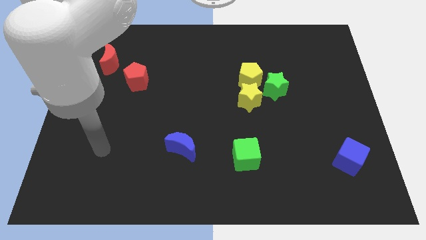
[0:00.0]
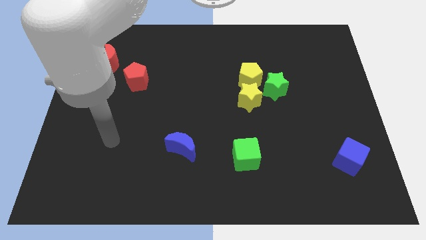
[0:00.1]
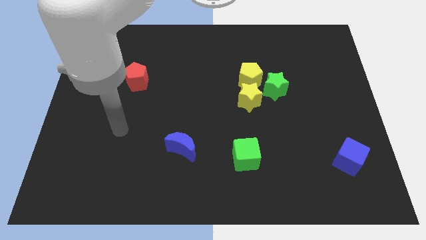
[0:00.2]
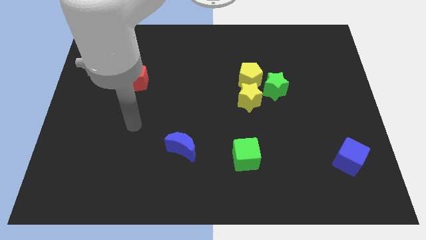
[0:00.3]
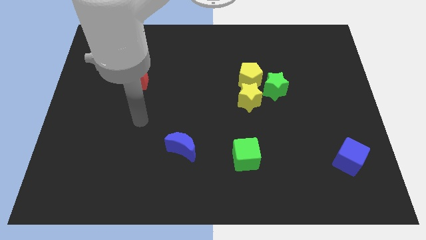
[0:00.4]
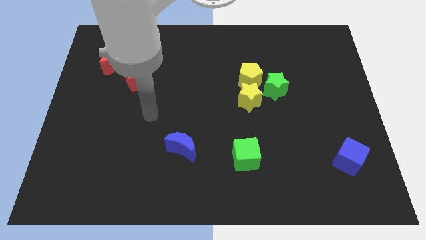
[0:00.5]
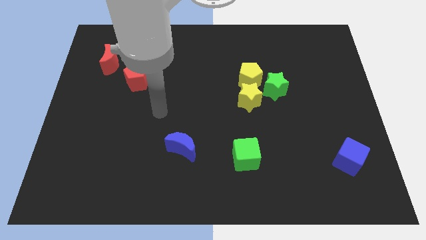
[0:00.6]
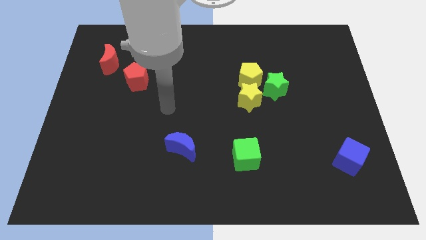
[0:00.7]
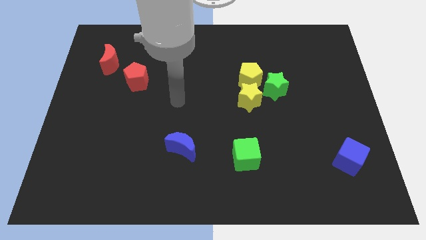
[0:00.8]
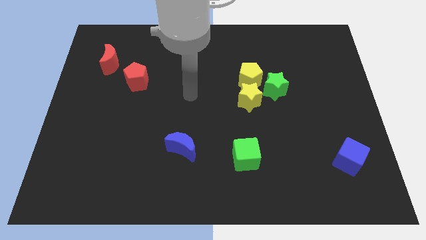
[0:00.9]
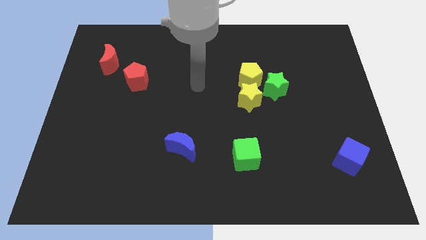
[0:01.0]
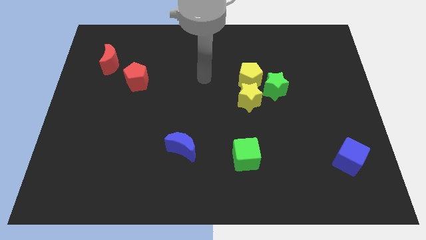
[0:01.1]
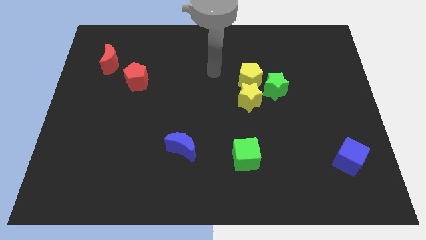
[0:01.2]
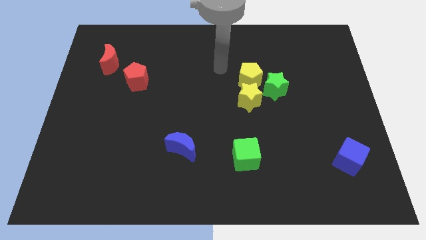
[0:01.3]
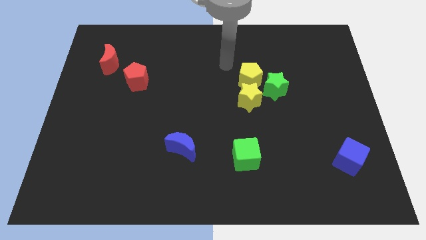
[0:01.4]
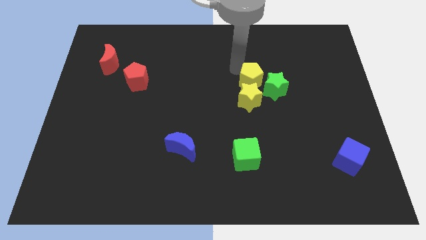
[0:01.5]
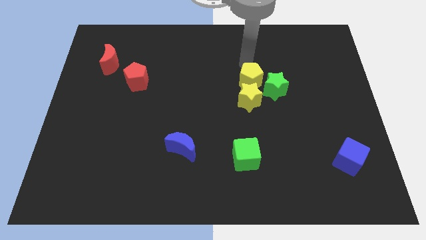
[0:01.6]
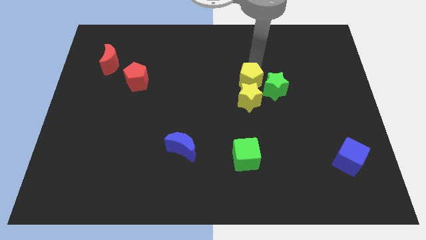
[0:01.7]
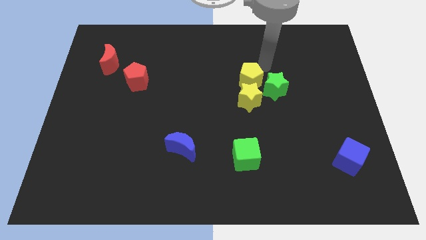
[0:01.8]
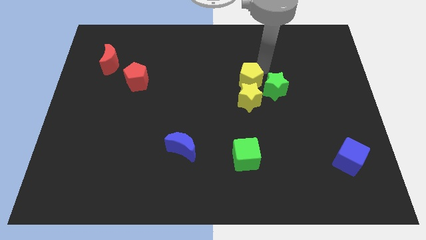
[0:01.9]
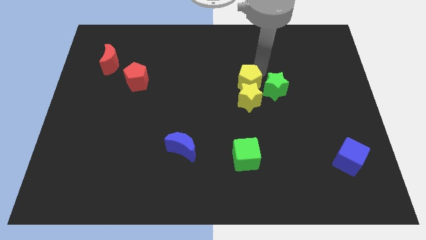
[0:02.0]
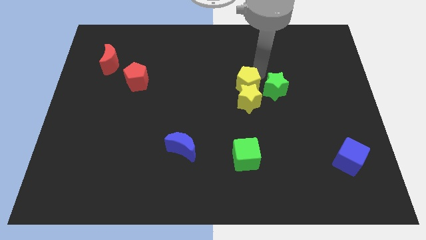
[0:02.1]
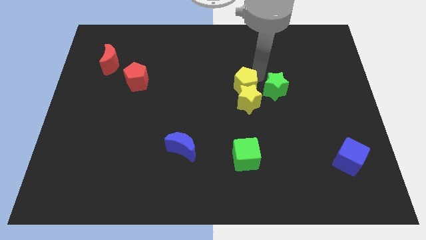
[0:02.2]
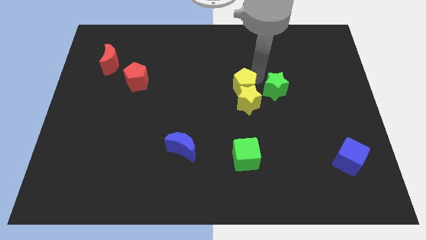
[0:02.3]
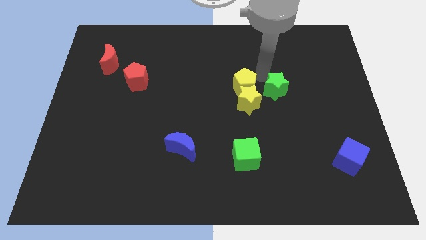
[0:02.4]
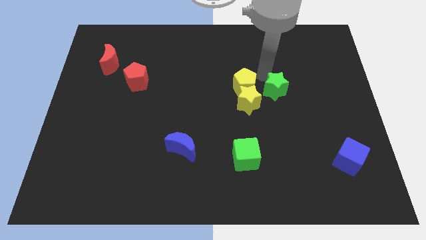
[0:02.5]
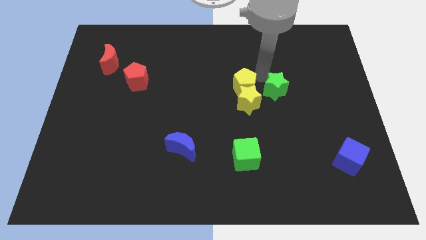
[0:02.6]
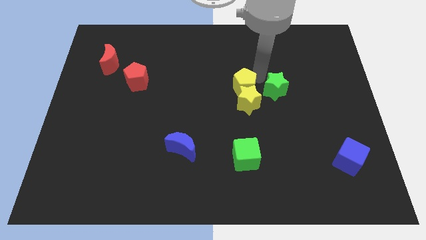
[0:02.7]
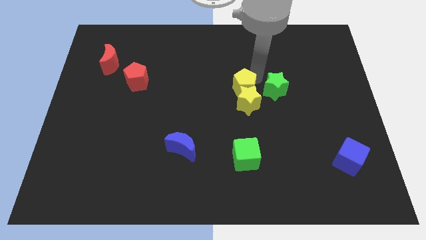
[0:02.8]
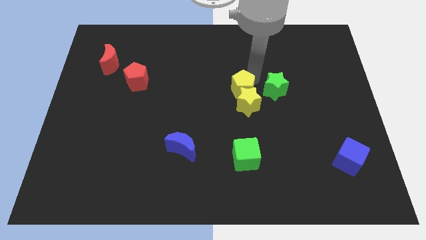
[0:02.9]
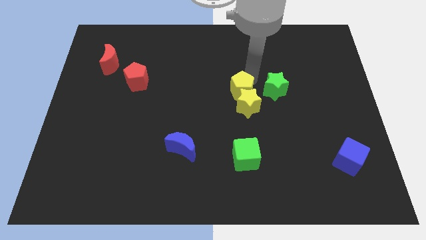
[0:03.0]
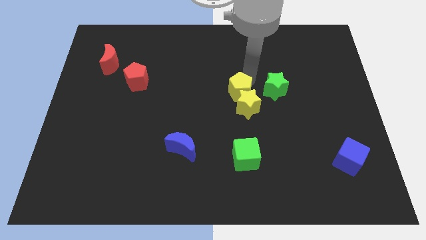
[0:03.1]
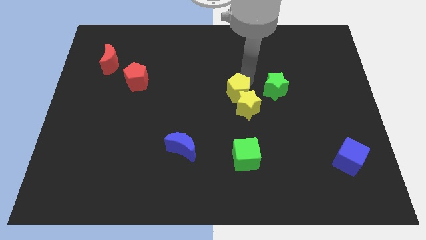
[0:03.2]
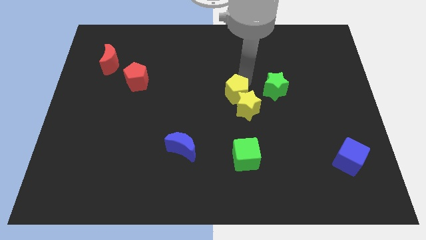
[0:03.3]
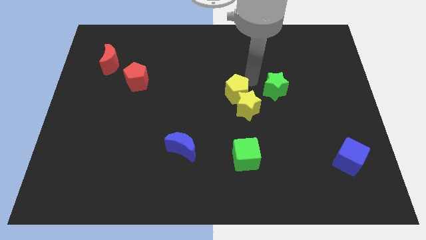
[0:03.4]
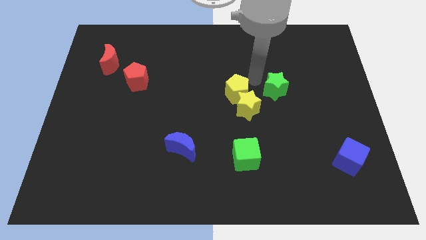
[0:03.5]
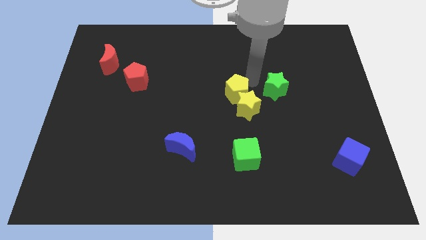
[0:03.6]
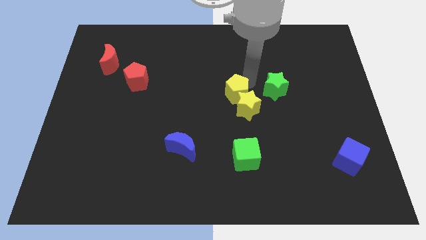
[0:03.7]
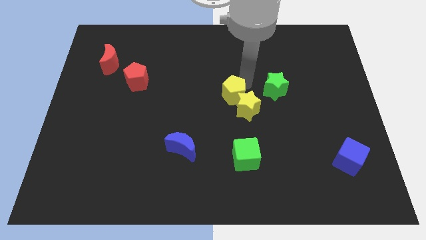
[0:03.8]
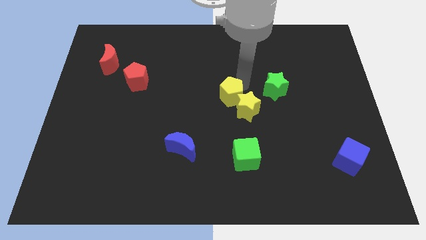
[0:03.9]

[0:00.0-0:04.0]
slide the yellow pentagon somewhat down and left diagonally

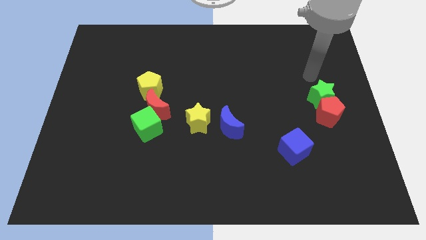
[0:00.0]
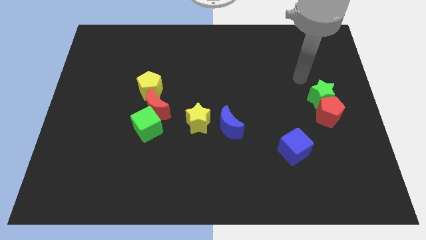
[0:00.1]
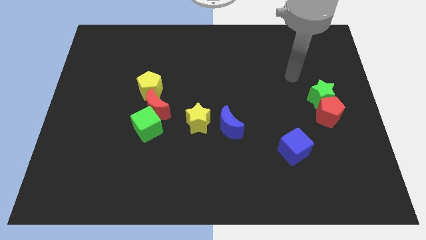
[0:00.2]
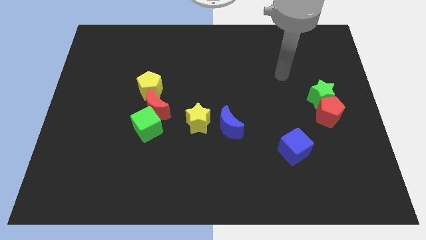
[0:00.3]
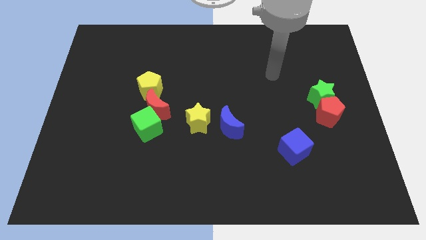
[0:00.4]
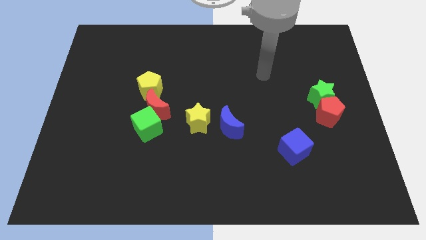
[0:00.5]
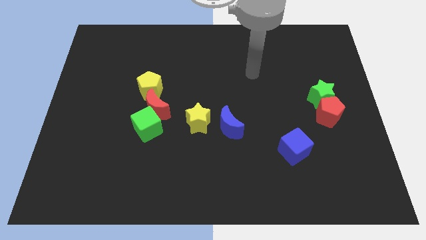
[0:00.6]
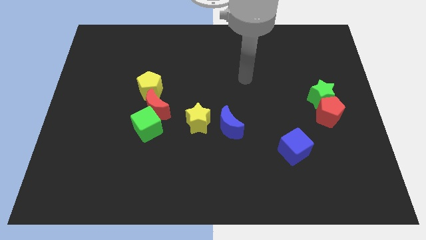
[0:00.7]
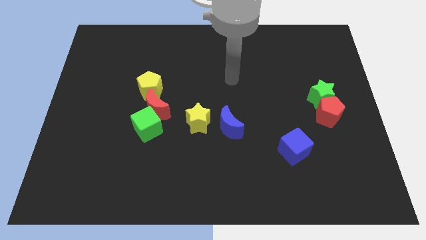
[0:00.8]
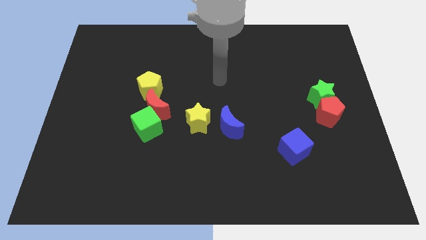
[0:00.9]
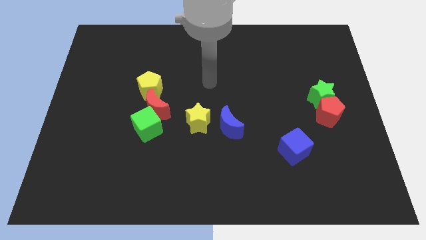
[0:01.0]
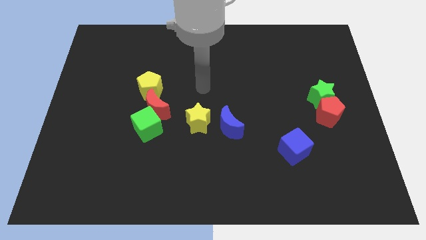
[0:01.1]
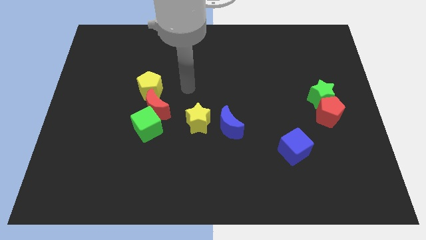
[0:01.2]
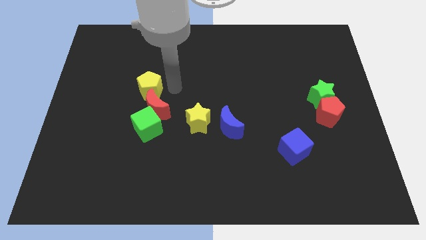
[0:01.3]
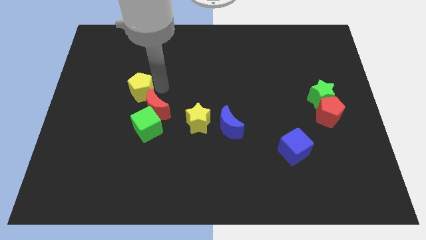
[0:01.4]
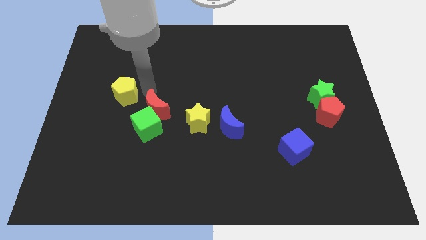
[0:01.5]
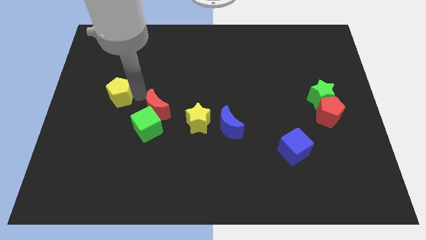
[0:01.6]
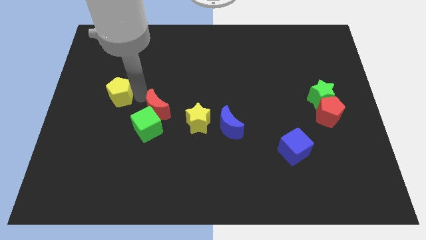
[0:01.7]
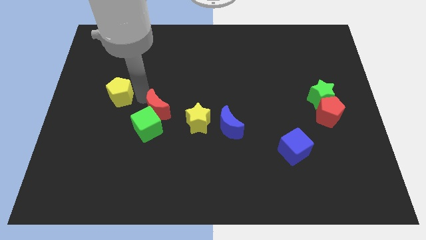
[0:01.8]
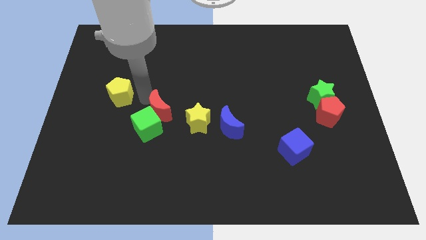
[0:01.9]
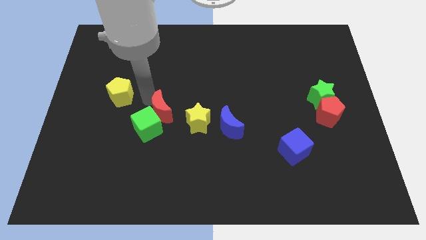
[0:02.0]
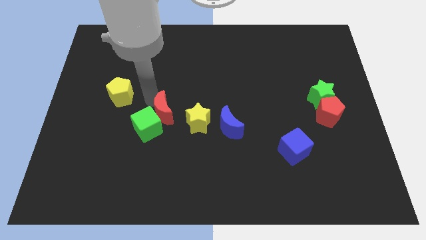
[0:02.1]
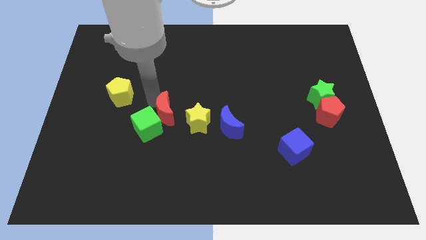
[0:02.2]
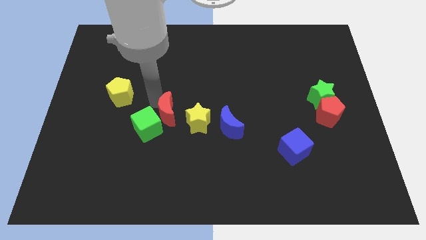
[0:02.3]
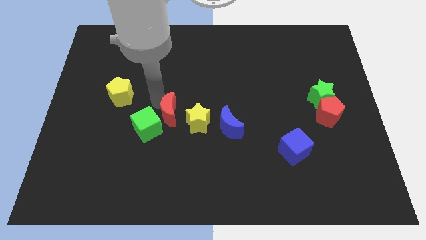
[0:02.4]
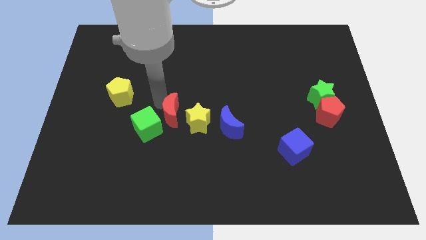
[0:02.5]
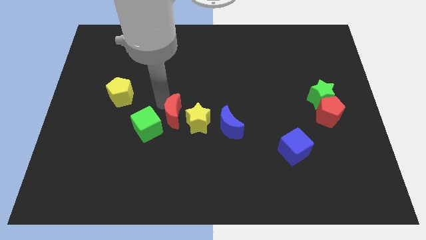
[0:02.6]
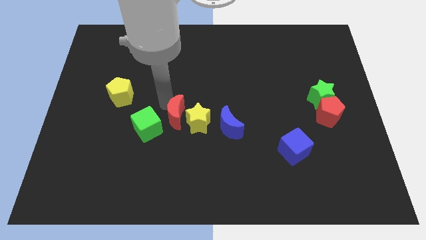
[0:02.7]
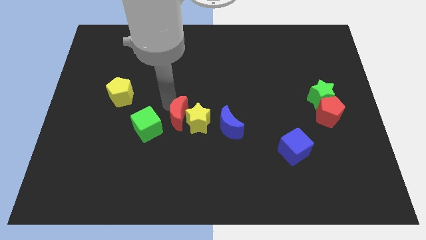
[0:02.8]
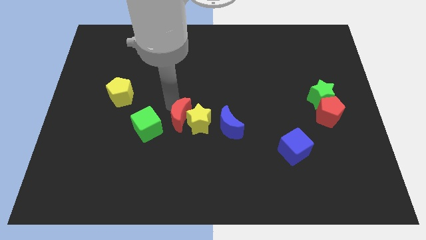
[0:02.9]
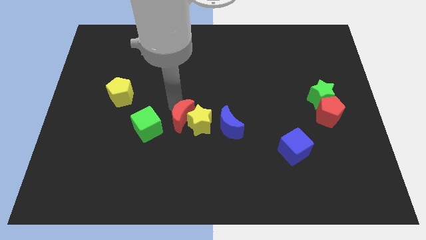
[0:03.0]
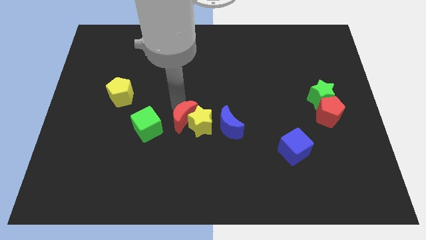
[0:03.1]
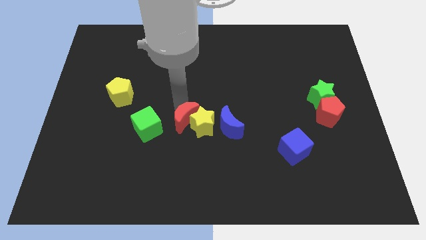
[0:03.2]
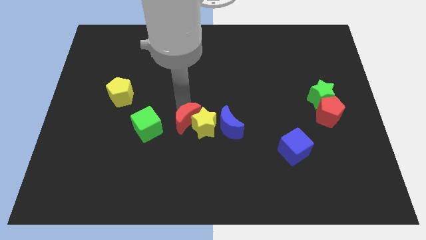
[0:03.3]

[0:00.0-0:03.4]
slide the red moon diagonally downwards and to the right a little bit

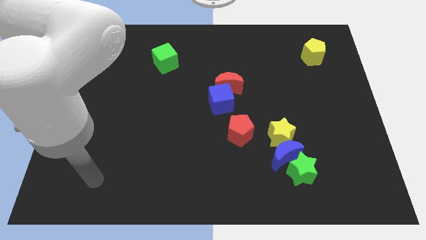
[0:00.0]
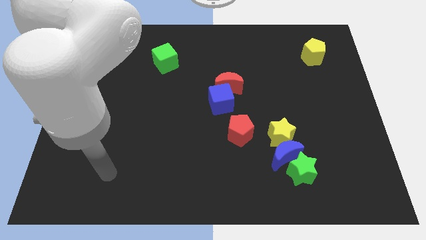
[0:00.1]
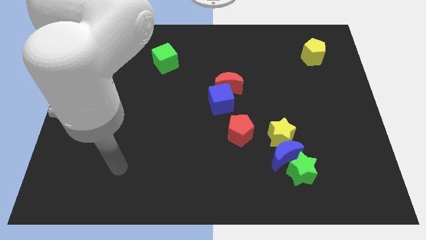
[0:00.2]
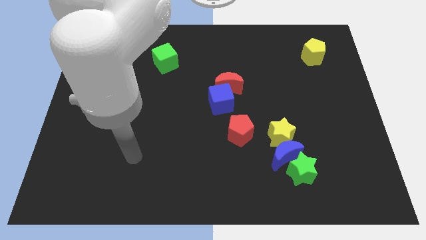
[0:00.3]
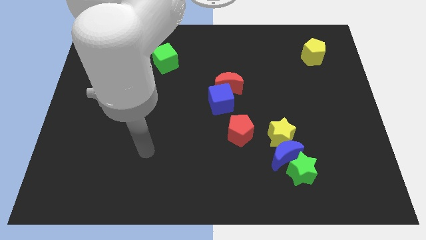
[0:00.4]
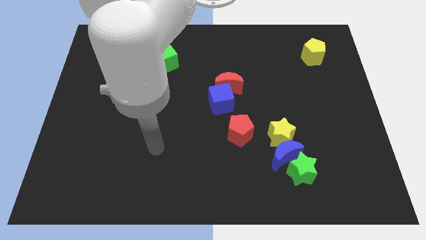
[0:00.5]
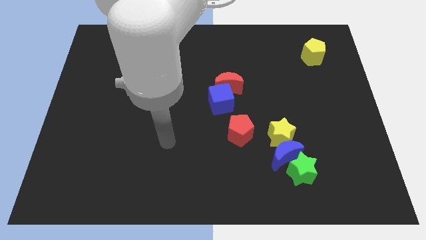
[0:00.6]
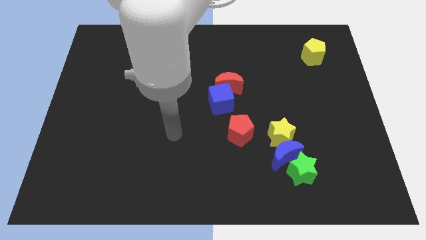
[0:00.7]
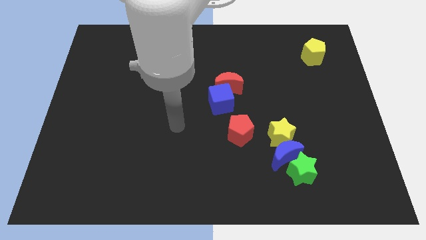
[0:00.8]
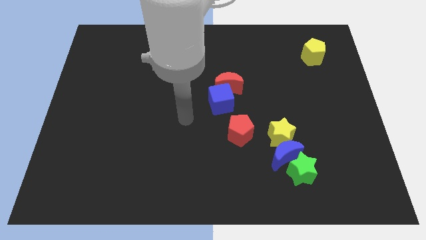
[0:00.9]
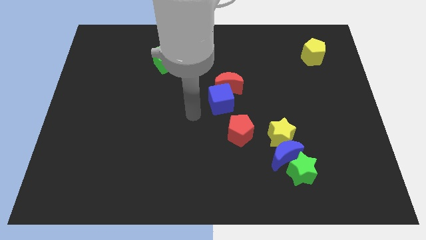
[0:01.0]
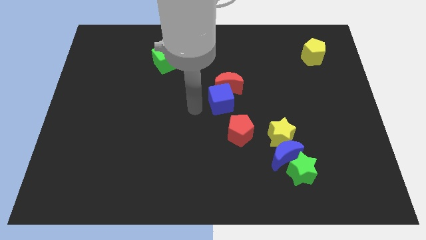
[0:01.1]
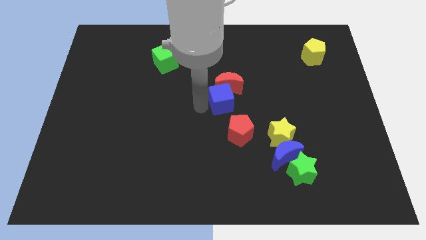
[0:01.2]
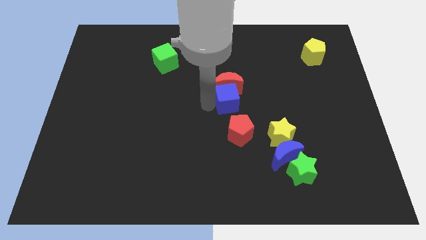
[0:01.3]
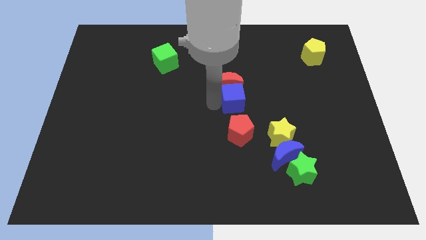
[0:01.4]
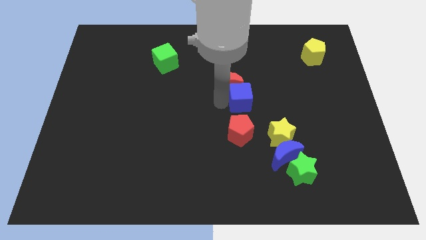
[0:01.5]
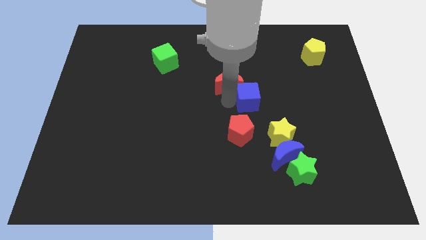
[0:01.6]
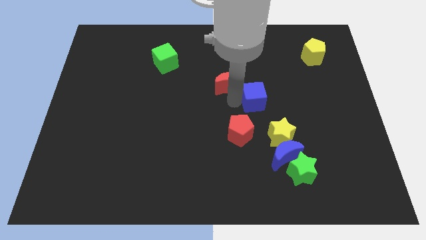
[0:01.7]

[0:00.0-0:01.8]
push the blue cube a bit to the right
